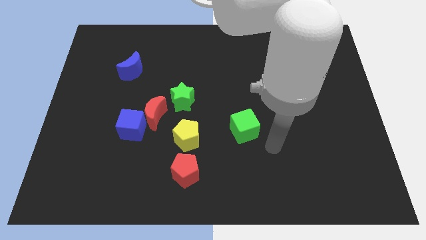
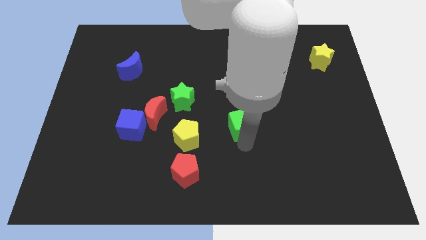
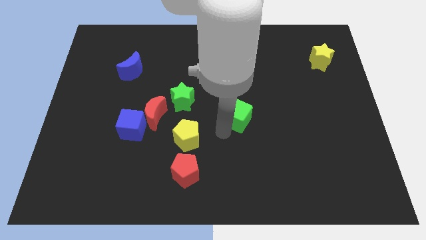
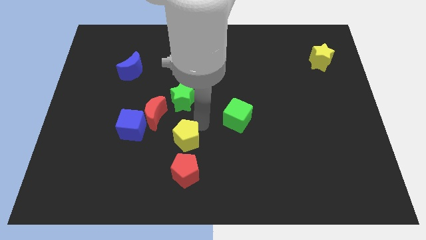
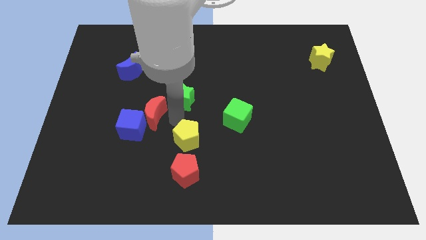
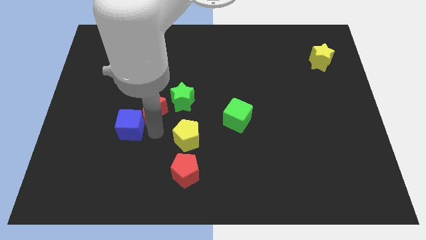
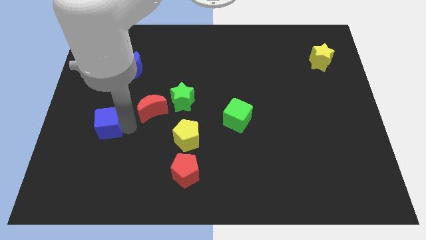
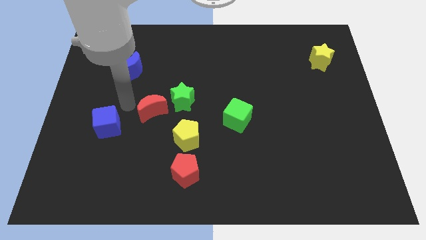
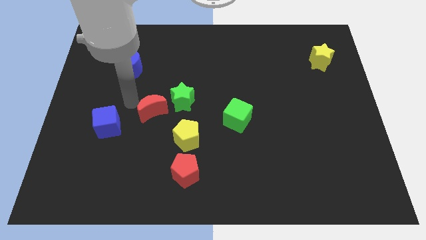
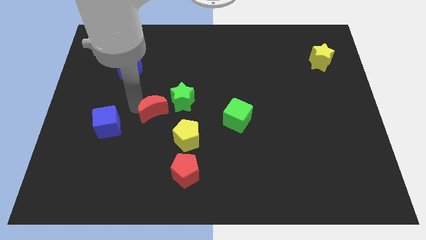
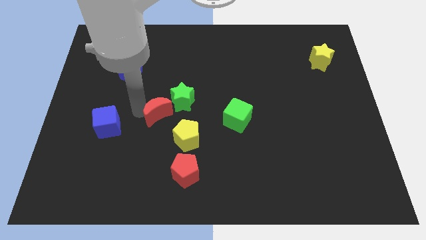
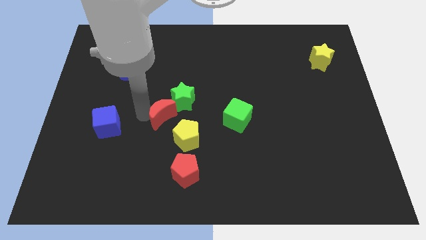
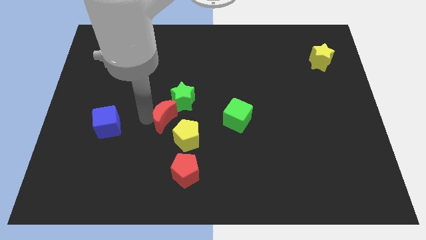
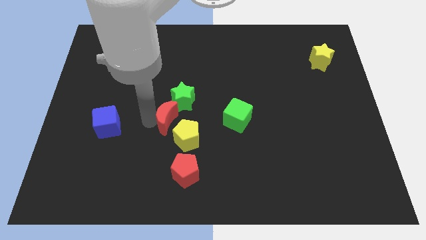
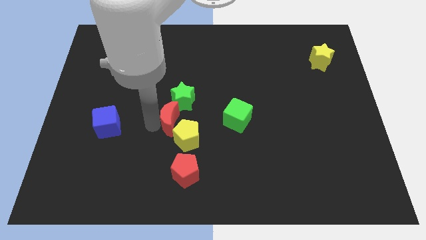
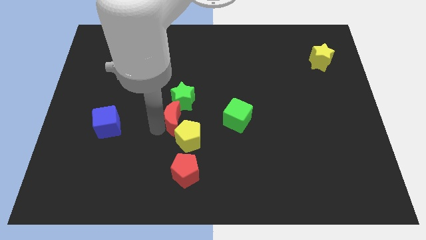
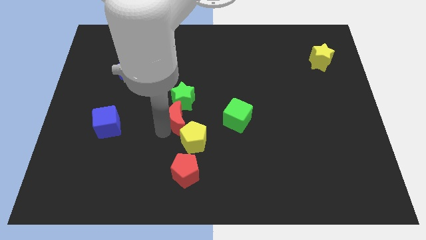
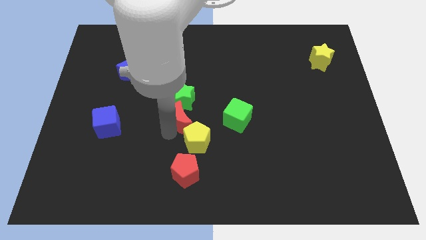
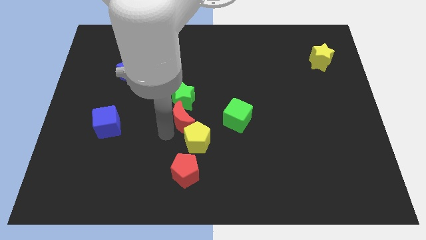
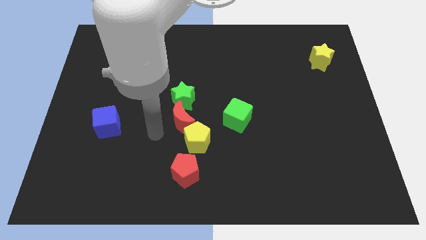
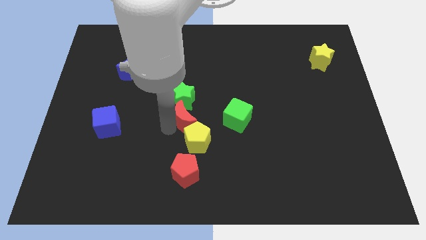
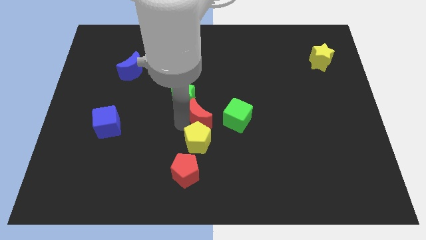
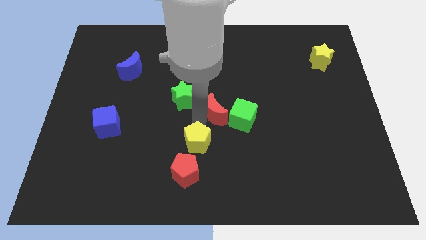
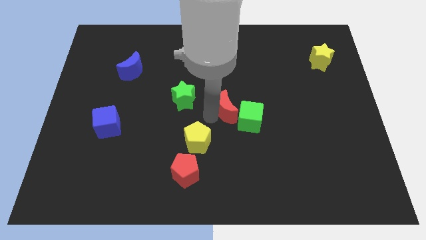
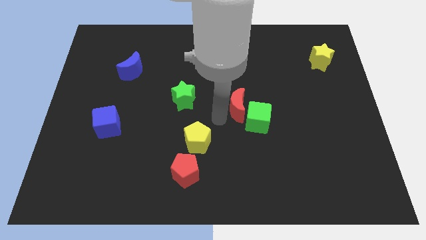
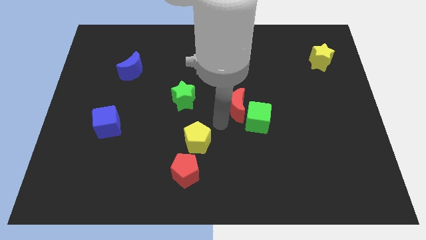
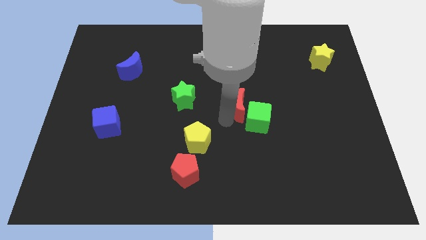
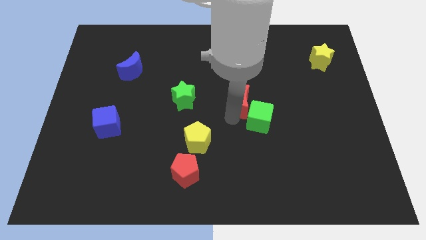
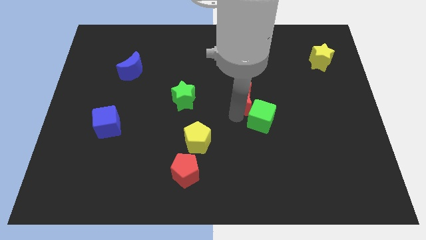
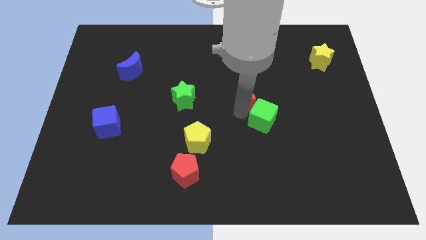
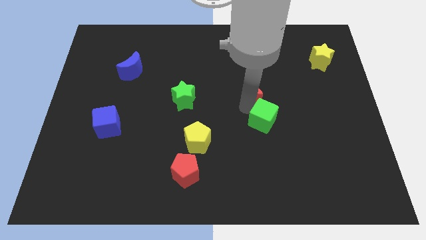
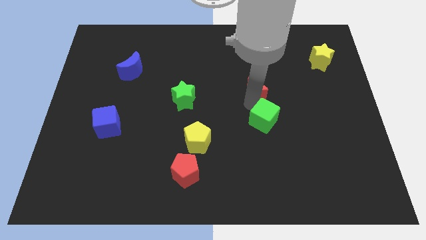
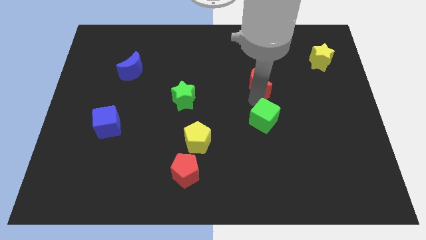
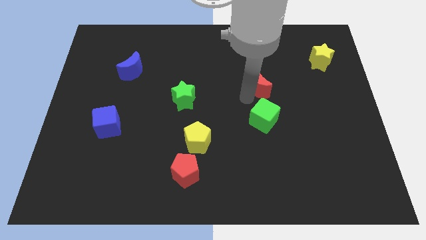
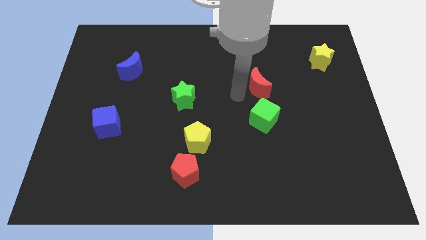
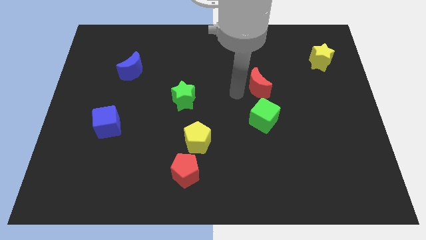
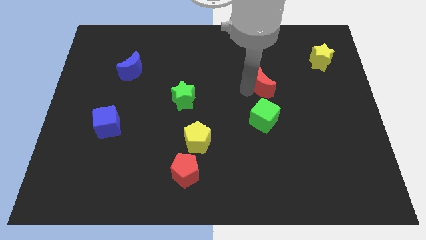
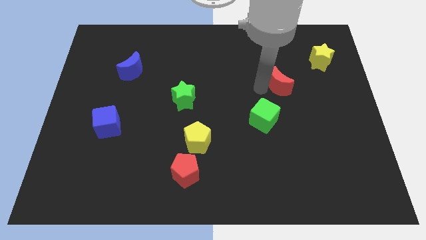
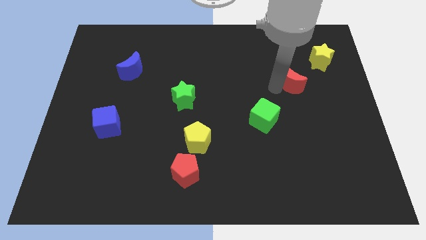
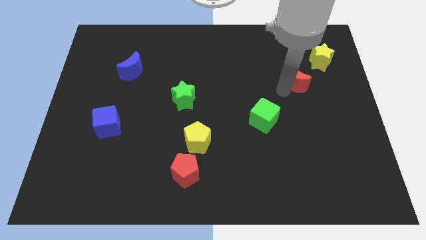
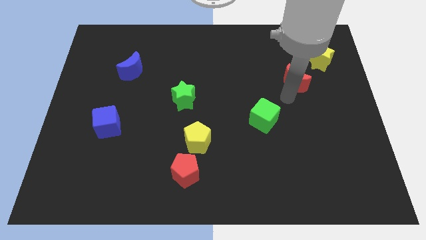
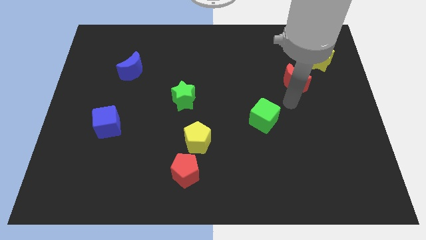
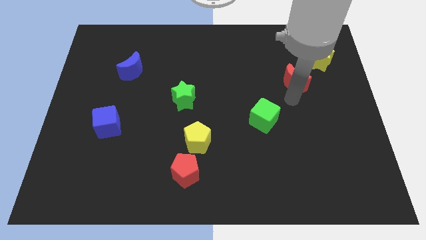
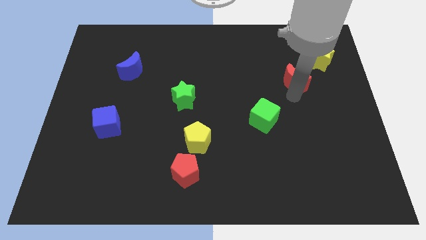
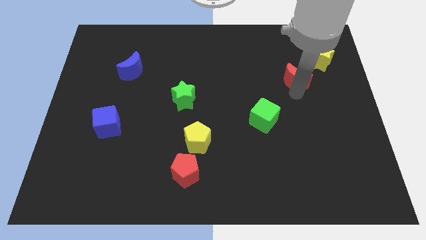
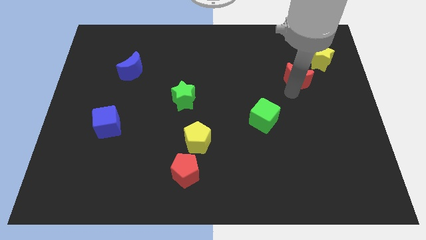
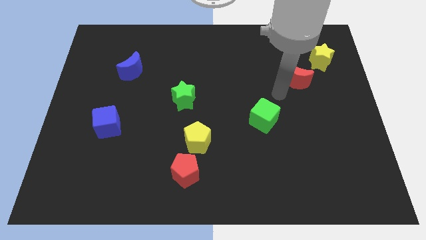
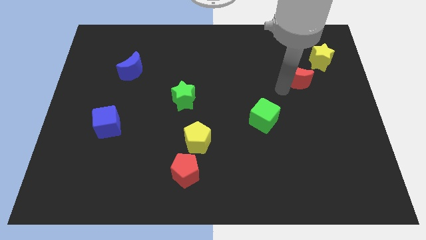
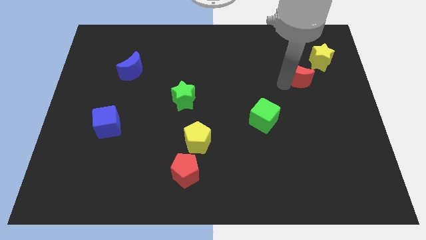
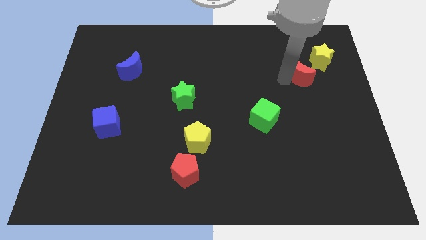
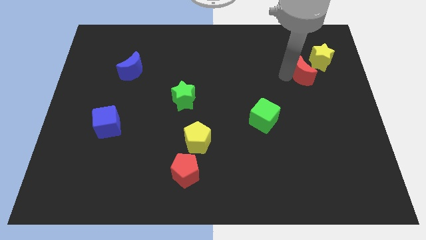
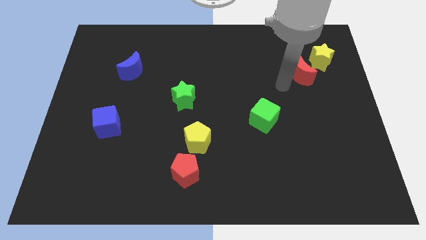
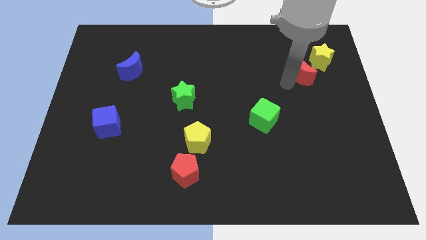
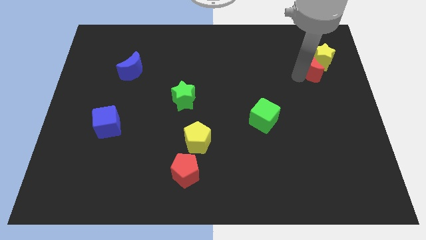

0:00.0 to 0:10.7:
move the red moon next to the yellow star

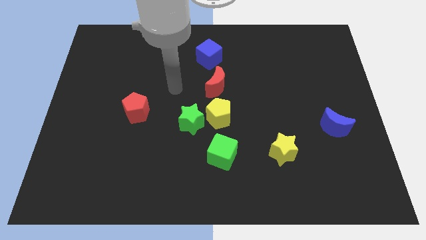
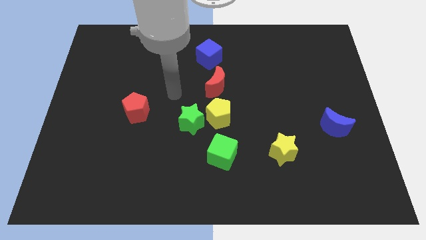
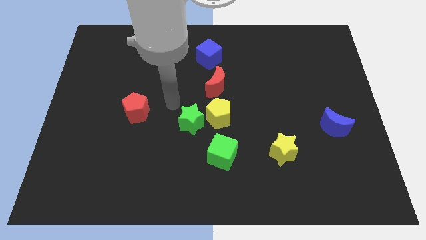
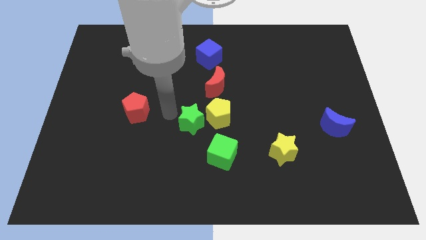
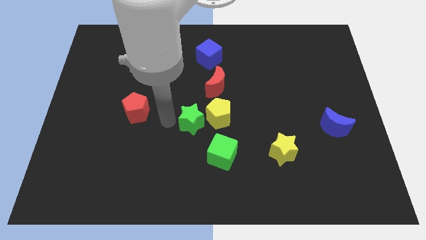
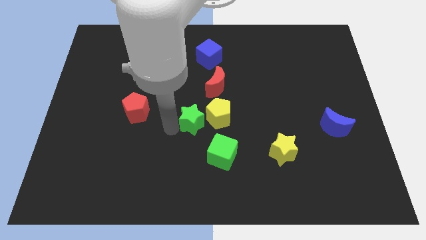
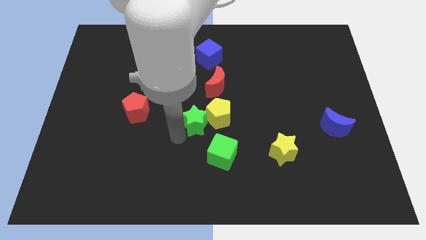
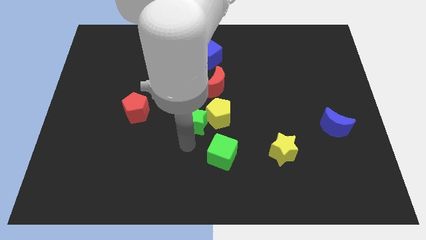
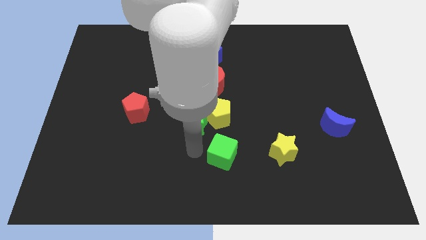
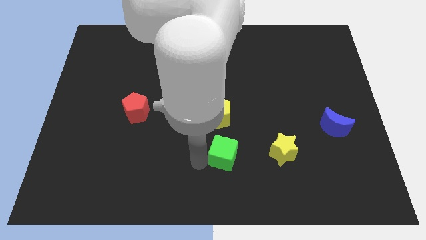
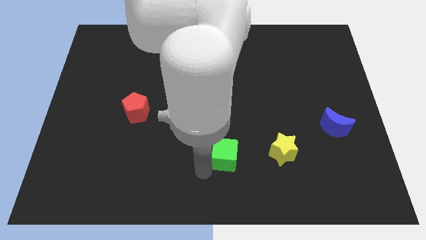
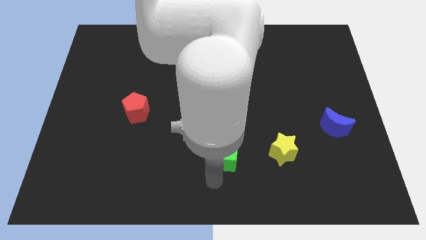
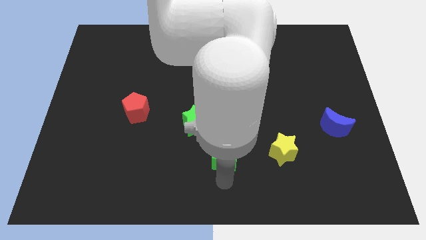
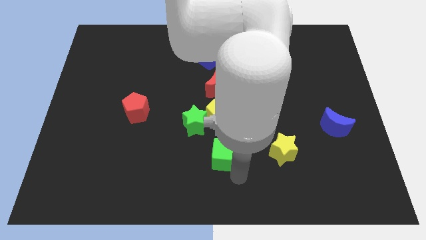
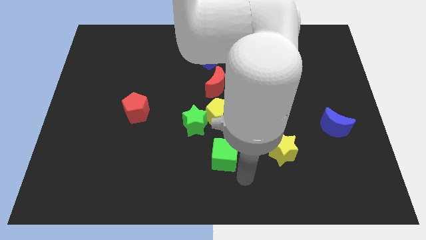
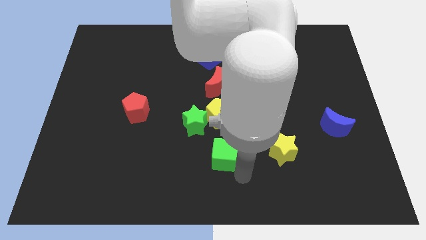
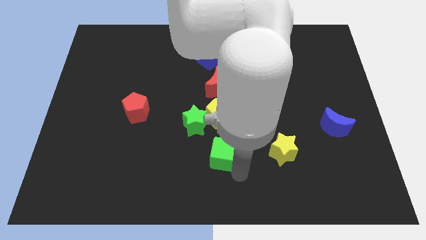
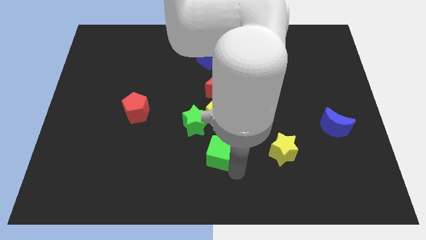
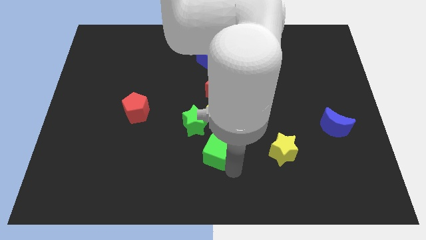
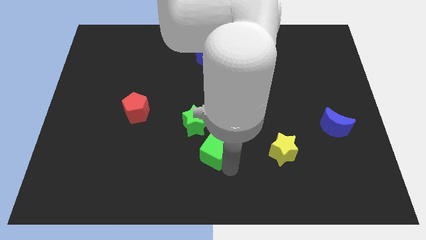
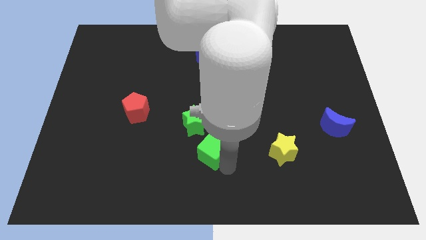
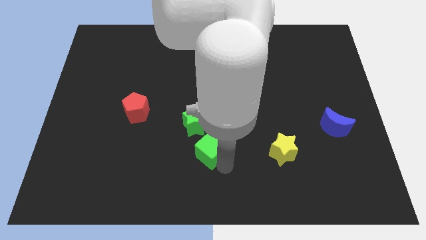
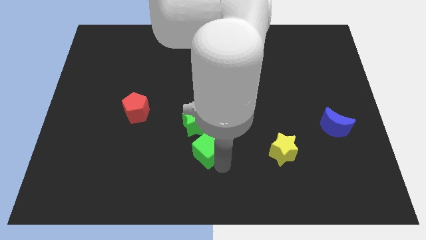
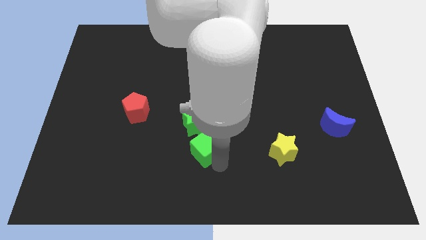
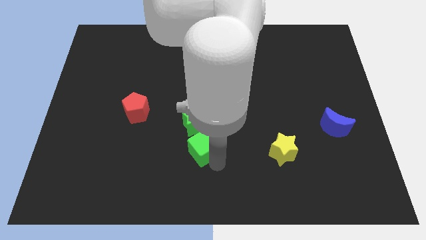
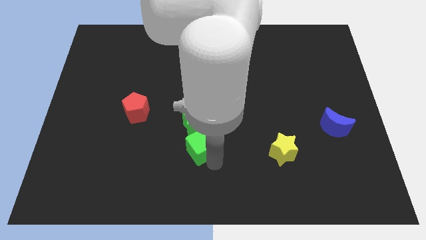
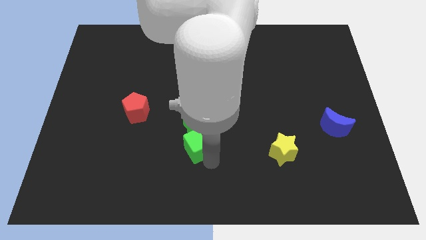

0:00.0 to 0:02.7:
push the green cube next to the green star
